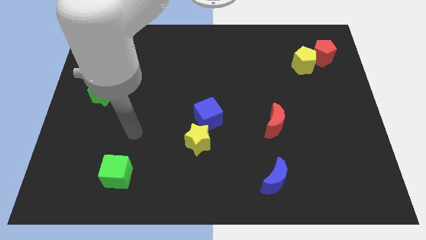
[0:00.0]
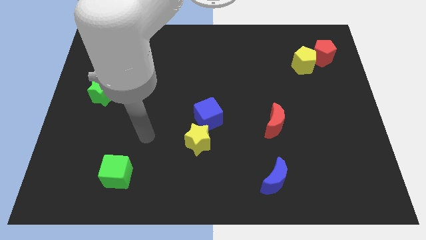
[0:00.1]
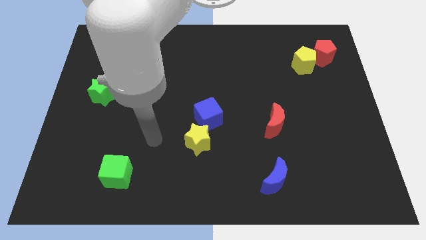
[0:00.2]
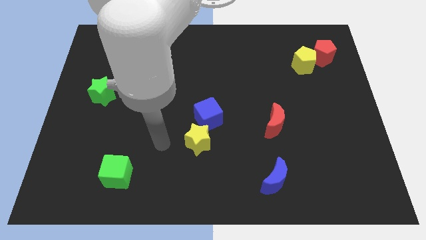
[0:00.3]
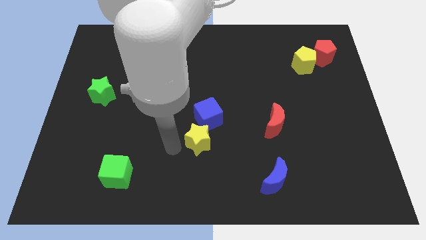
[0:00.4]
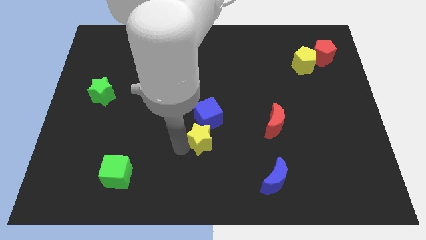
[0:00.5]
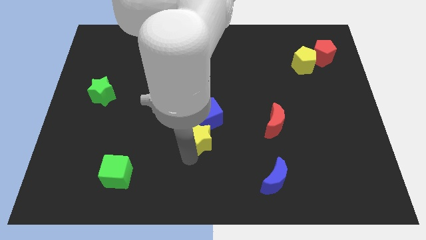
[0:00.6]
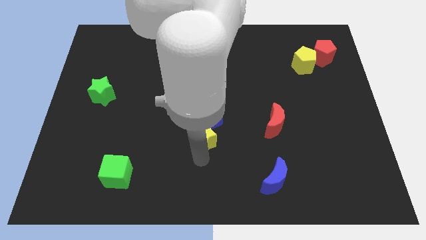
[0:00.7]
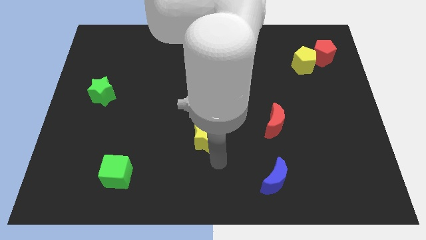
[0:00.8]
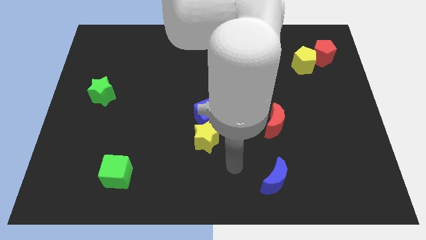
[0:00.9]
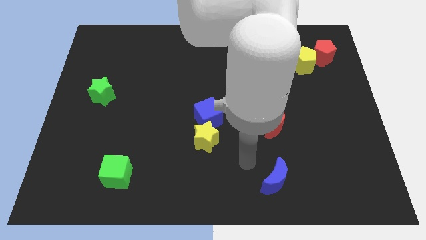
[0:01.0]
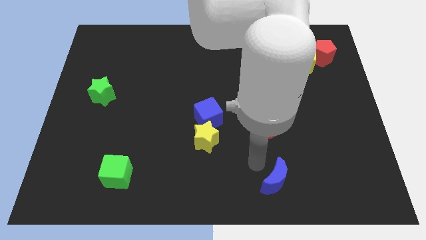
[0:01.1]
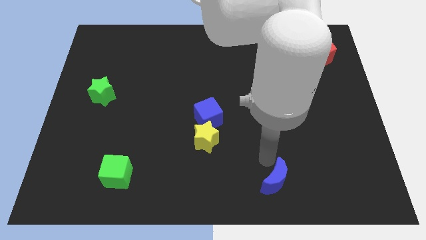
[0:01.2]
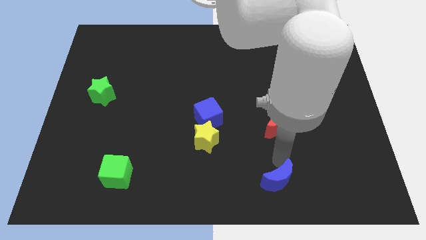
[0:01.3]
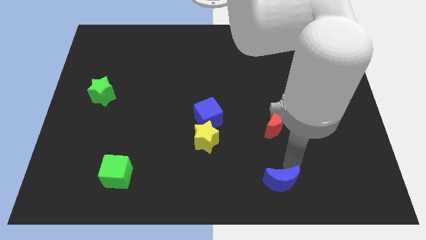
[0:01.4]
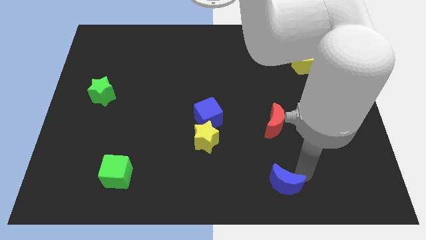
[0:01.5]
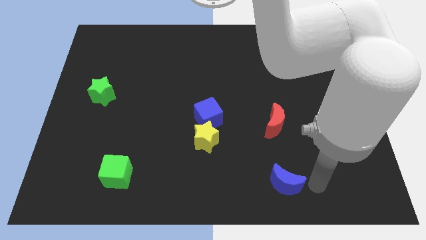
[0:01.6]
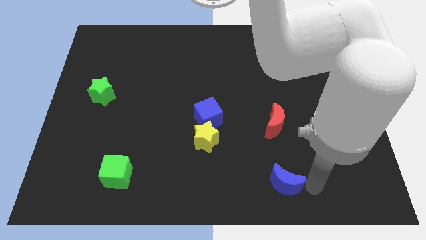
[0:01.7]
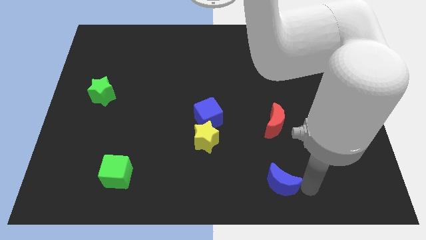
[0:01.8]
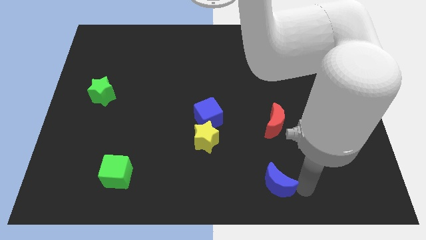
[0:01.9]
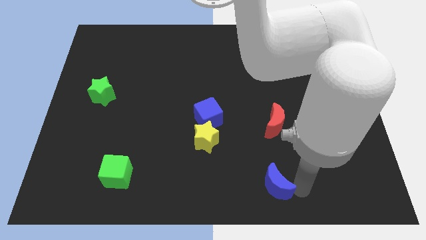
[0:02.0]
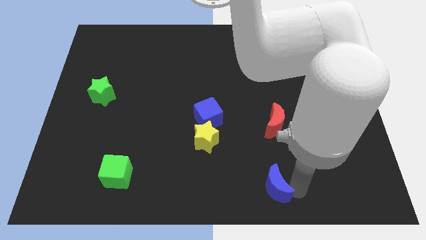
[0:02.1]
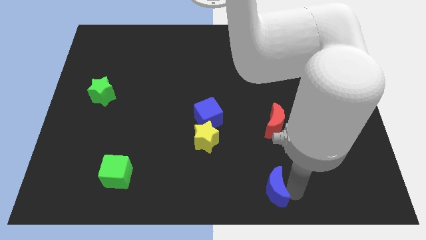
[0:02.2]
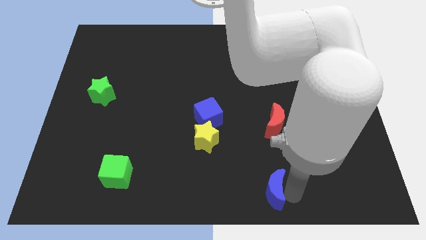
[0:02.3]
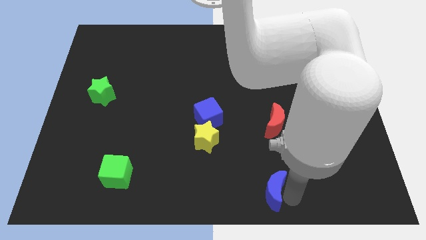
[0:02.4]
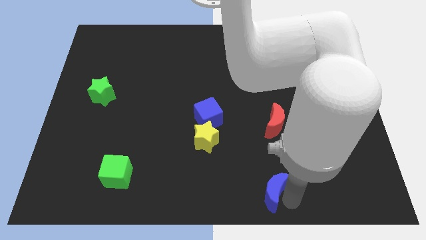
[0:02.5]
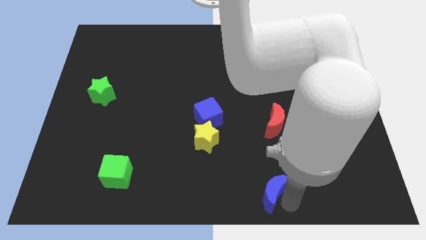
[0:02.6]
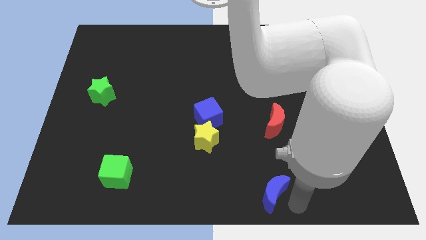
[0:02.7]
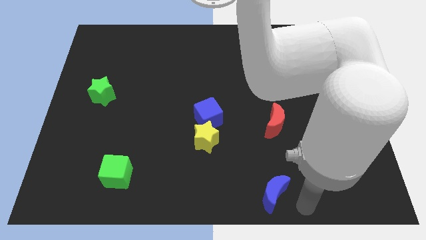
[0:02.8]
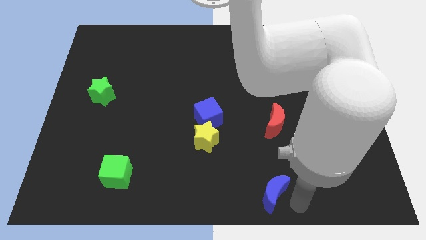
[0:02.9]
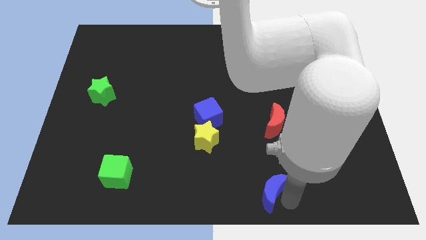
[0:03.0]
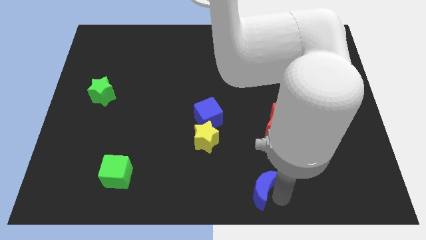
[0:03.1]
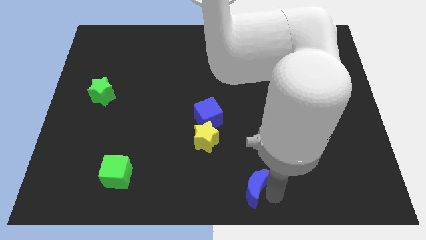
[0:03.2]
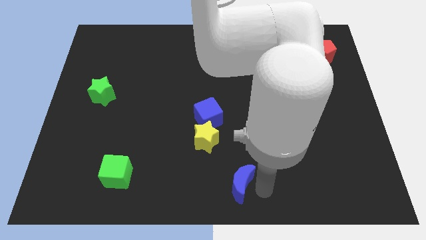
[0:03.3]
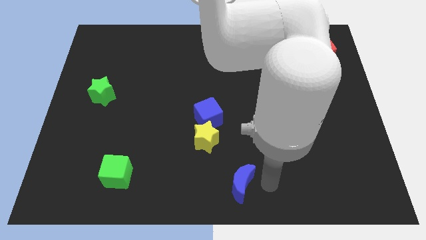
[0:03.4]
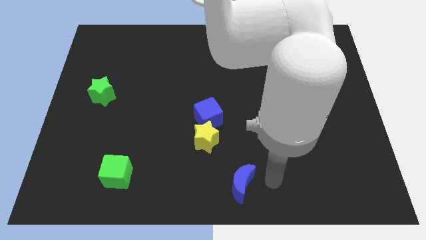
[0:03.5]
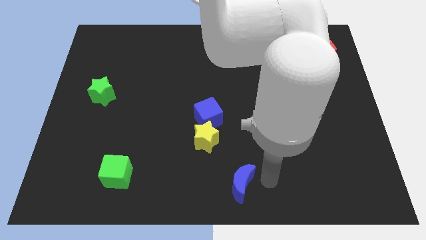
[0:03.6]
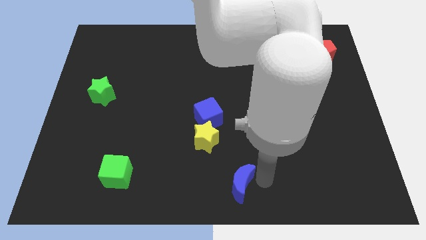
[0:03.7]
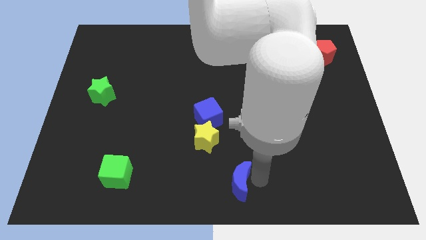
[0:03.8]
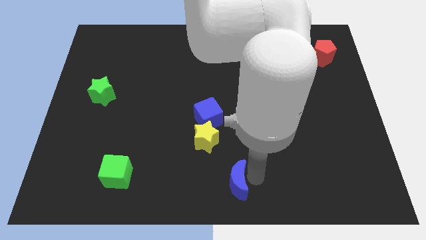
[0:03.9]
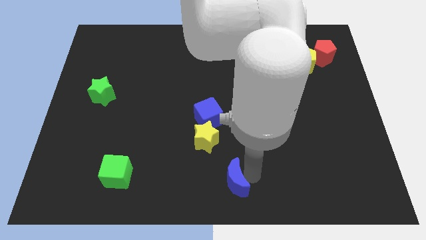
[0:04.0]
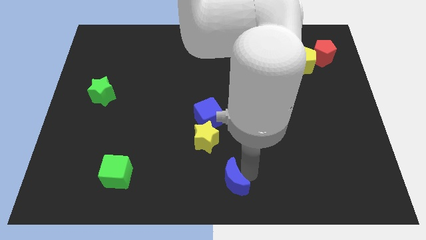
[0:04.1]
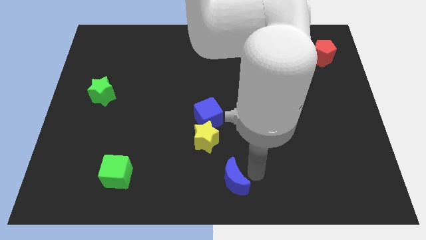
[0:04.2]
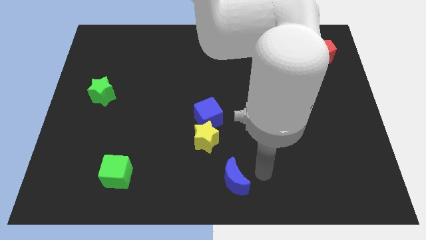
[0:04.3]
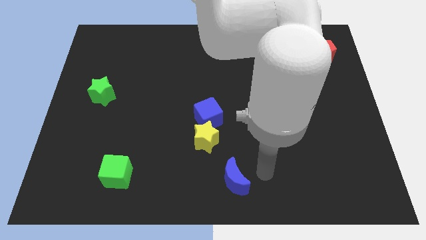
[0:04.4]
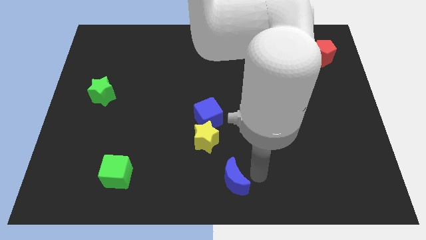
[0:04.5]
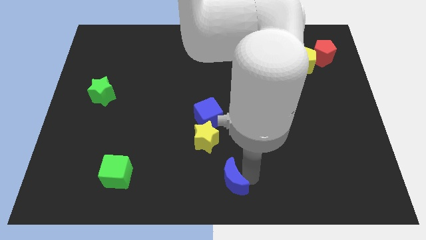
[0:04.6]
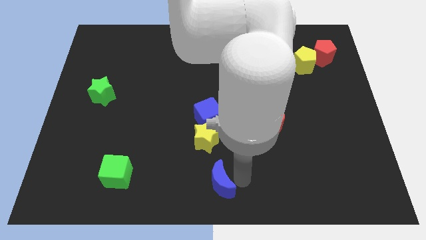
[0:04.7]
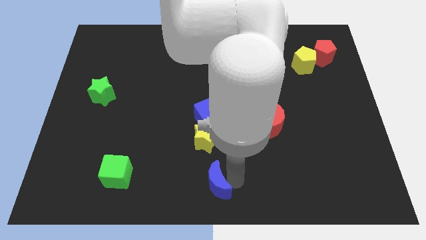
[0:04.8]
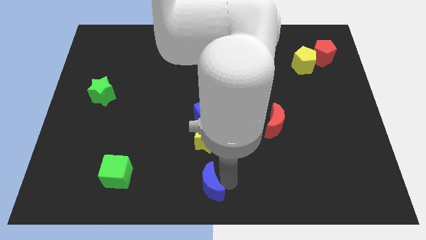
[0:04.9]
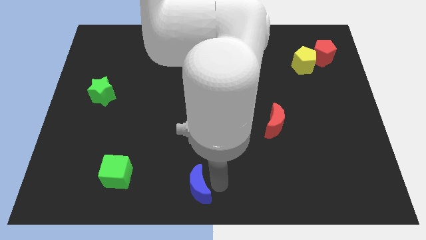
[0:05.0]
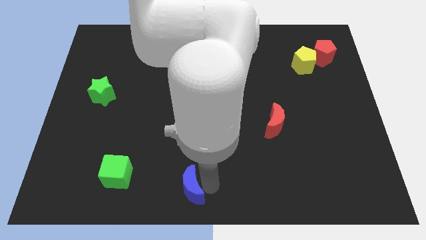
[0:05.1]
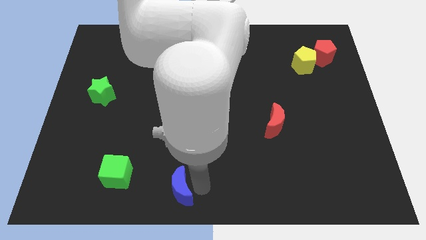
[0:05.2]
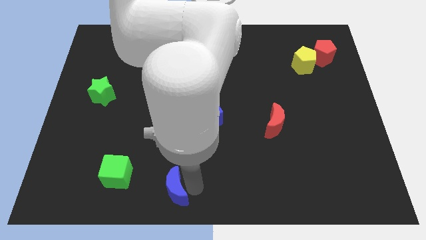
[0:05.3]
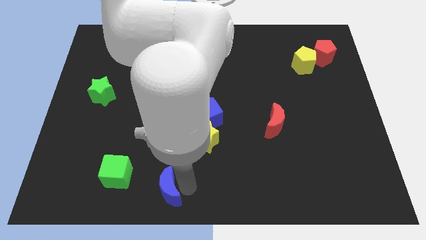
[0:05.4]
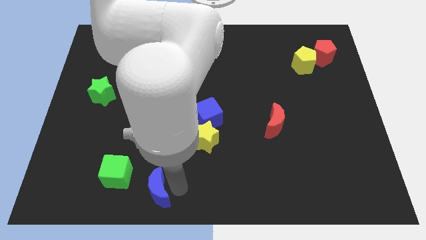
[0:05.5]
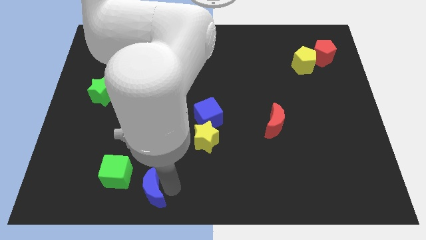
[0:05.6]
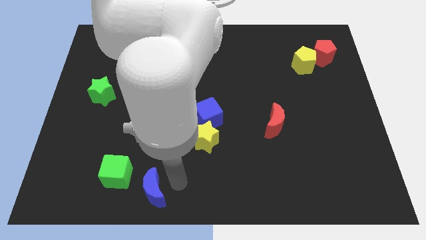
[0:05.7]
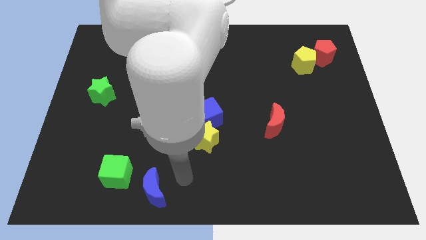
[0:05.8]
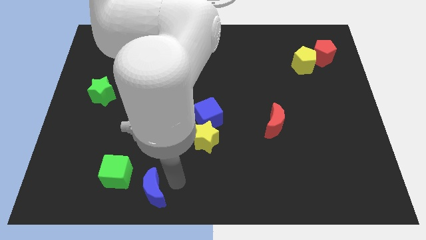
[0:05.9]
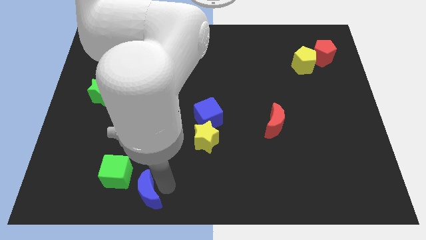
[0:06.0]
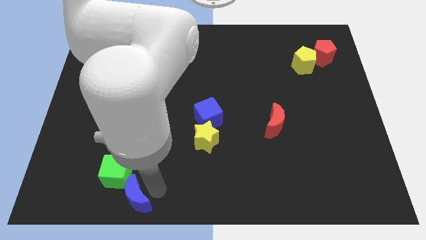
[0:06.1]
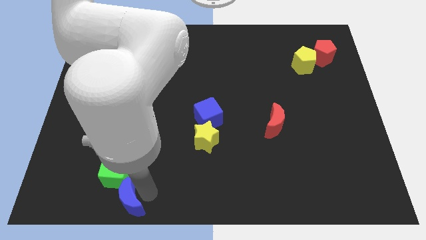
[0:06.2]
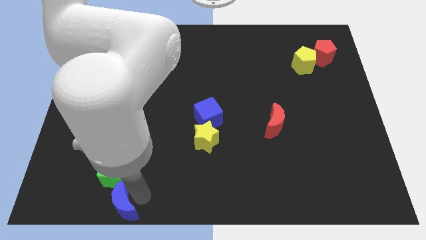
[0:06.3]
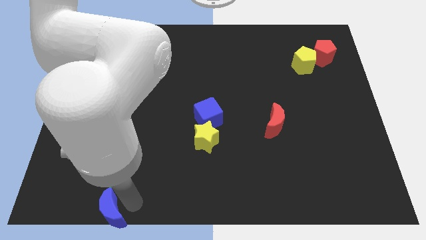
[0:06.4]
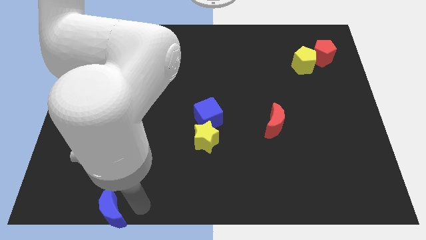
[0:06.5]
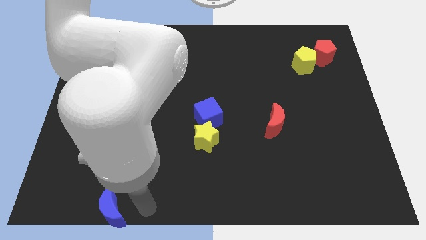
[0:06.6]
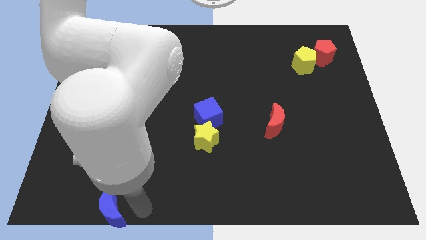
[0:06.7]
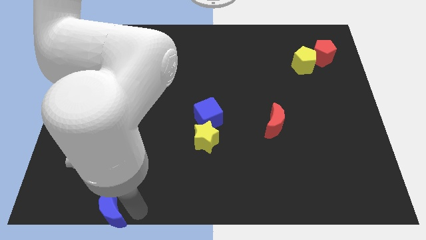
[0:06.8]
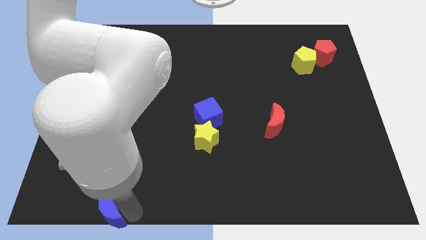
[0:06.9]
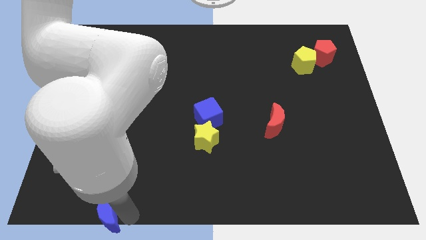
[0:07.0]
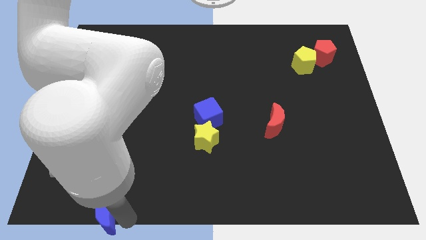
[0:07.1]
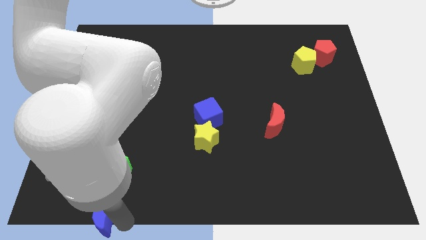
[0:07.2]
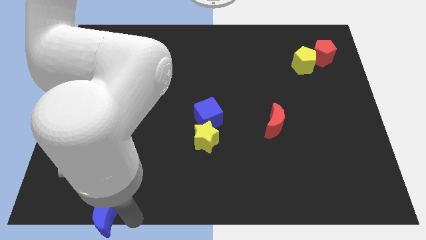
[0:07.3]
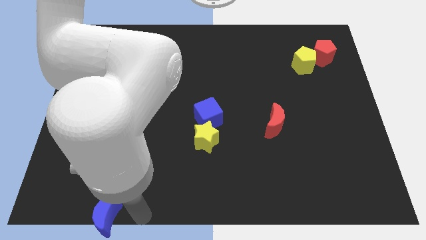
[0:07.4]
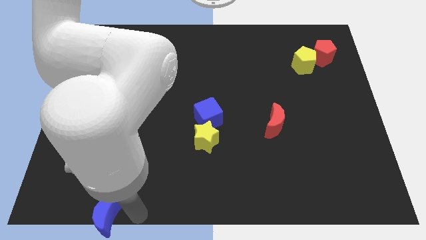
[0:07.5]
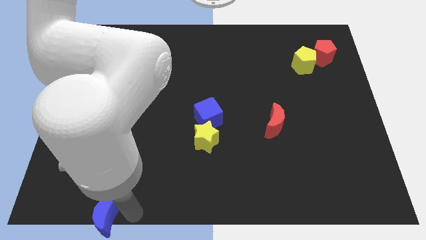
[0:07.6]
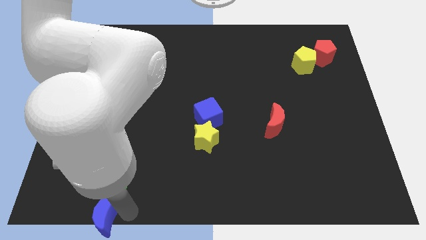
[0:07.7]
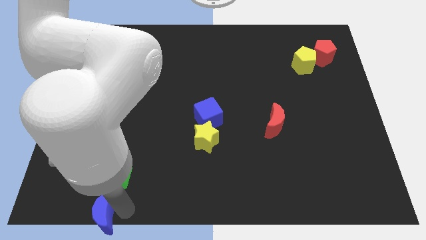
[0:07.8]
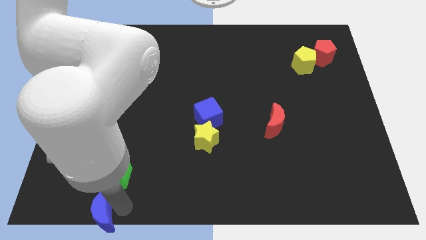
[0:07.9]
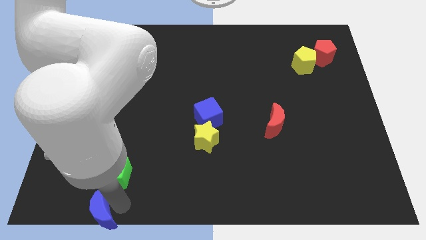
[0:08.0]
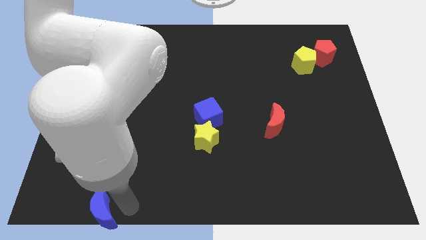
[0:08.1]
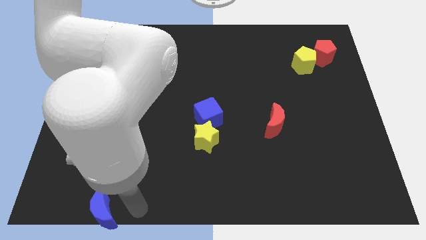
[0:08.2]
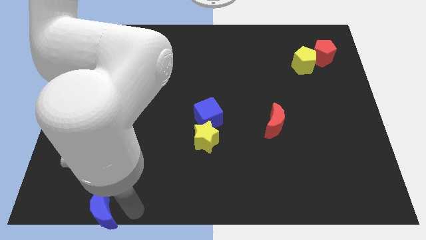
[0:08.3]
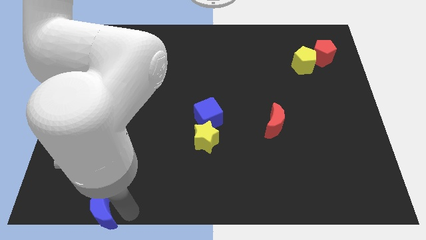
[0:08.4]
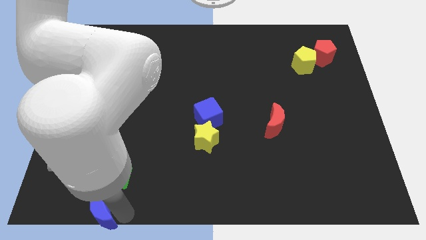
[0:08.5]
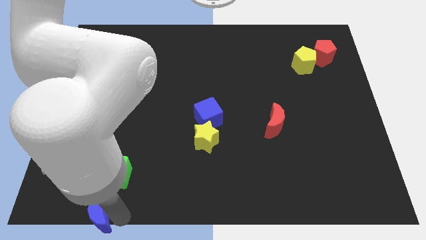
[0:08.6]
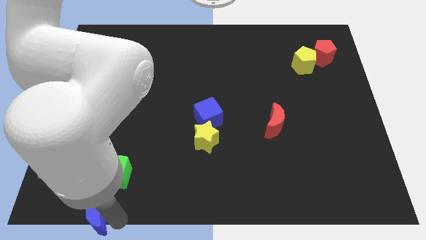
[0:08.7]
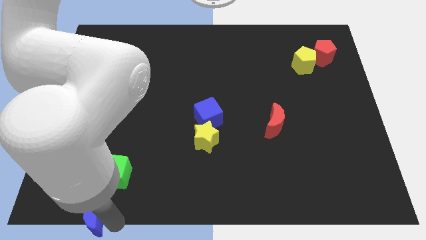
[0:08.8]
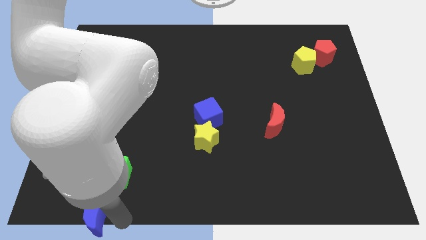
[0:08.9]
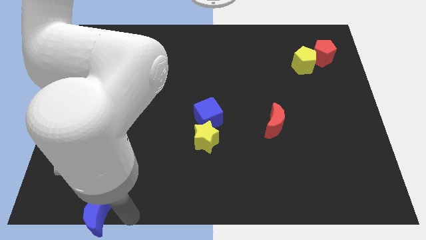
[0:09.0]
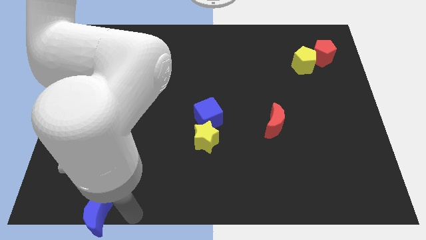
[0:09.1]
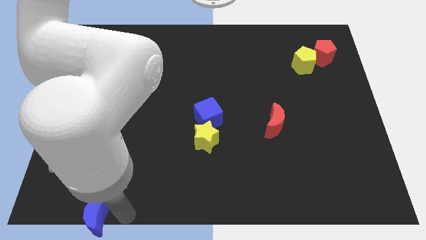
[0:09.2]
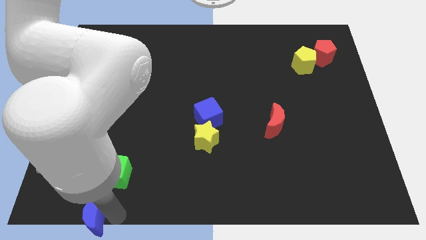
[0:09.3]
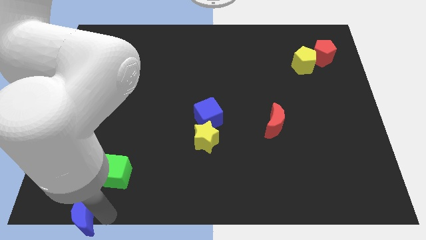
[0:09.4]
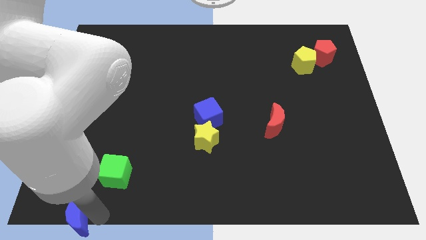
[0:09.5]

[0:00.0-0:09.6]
slide the blue moon to the lower left corner
